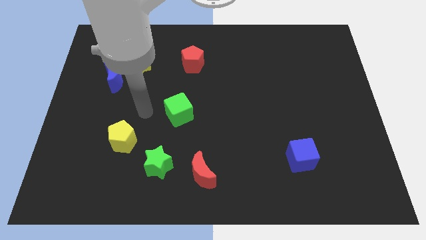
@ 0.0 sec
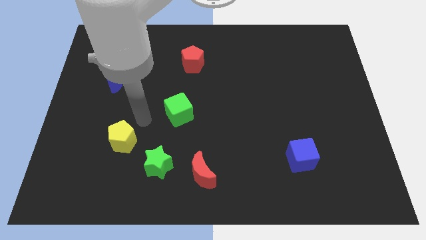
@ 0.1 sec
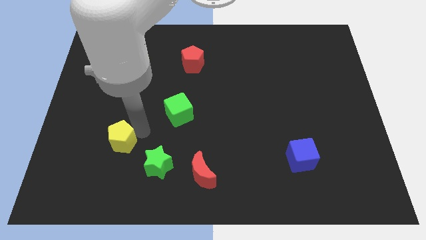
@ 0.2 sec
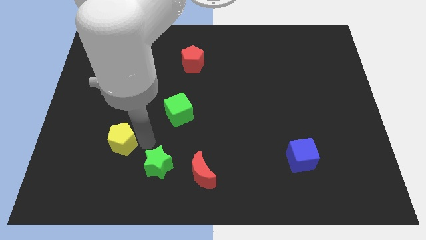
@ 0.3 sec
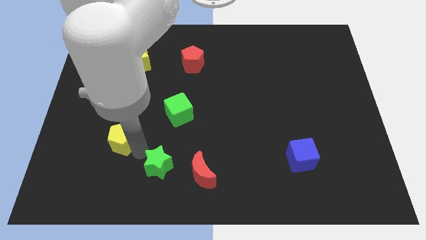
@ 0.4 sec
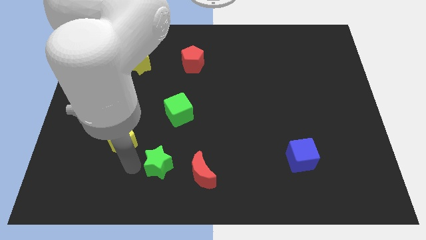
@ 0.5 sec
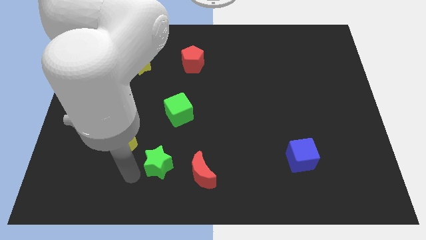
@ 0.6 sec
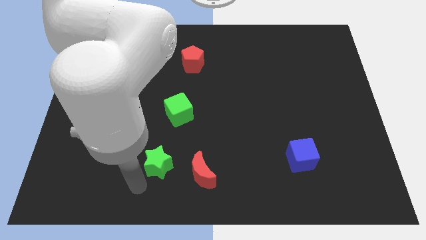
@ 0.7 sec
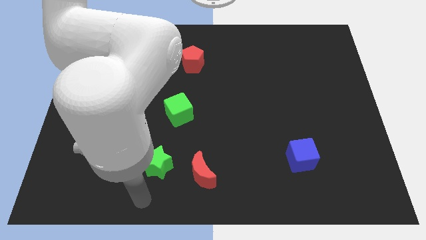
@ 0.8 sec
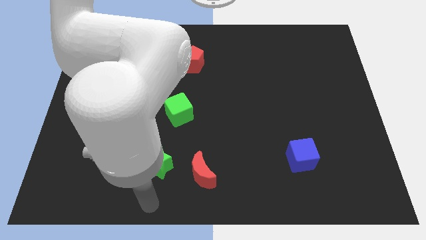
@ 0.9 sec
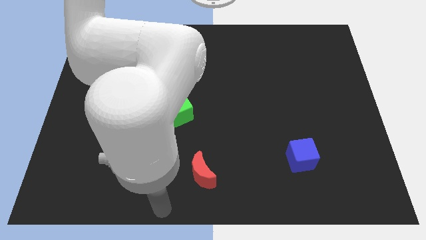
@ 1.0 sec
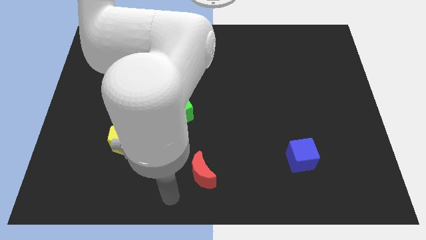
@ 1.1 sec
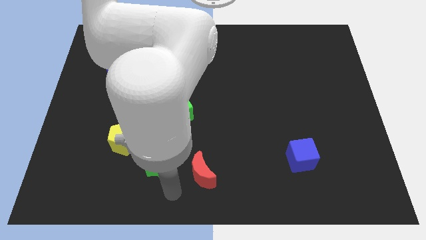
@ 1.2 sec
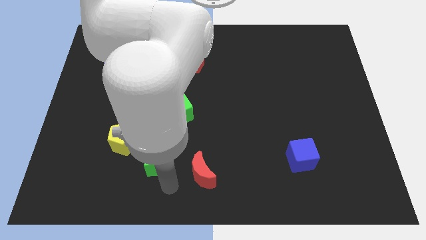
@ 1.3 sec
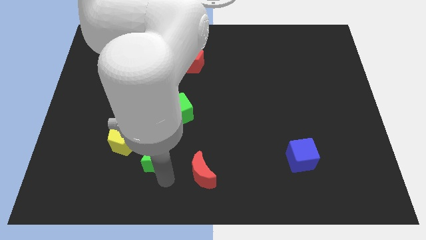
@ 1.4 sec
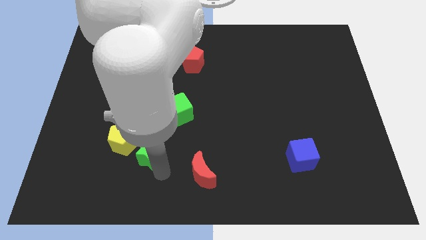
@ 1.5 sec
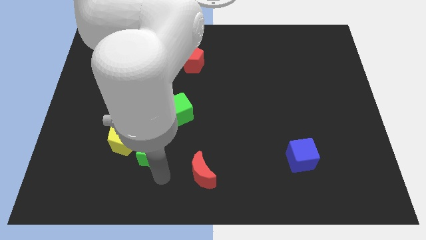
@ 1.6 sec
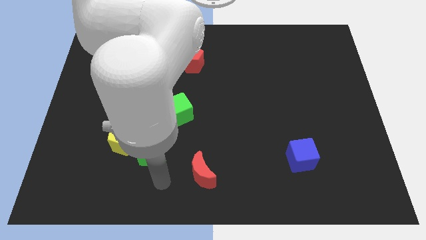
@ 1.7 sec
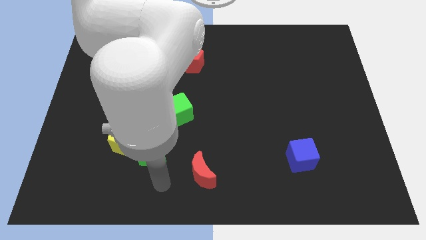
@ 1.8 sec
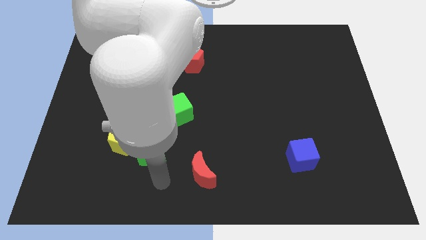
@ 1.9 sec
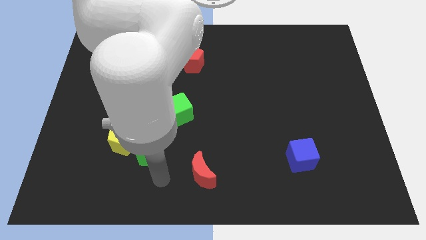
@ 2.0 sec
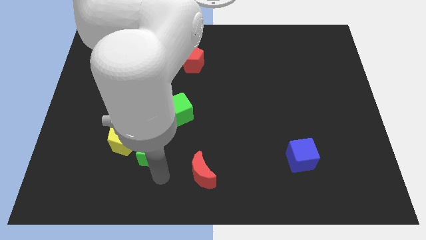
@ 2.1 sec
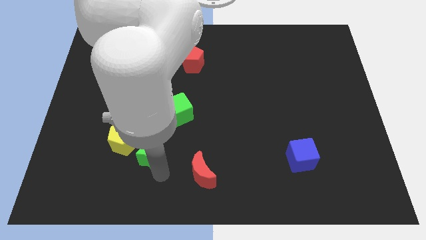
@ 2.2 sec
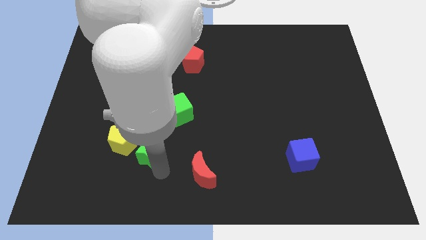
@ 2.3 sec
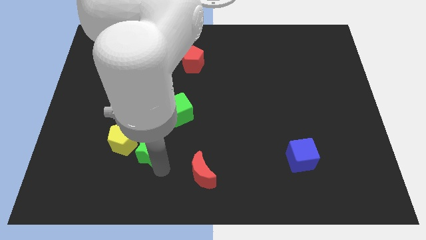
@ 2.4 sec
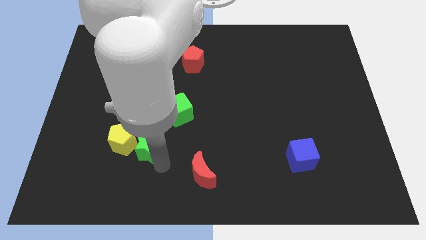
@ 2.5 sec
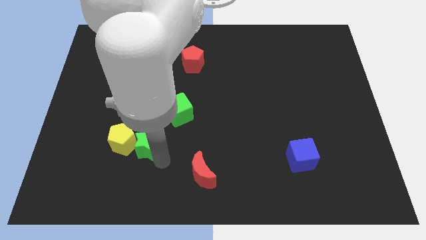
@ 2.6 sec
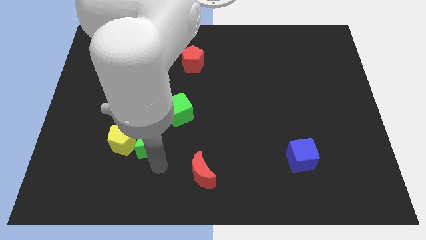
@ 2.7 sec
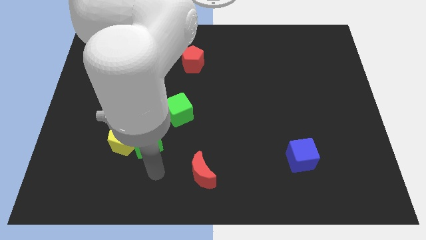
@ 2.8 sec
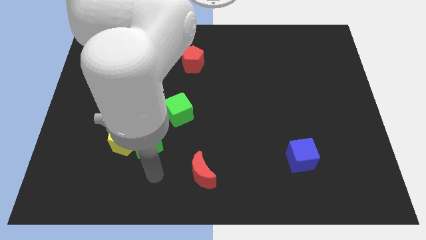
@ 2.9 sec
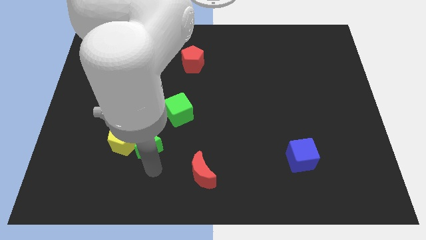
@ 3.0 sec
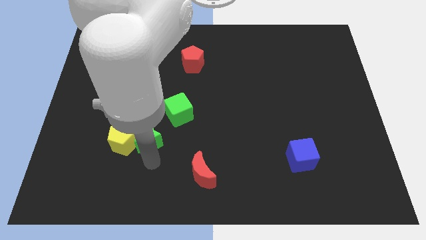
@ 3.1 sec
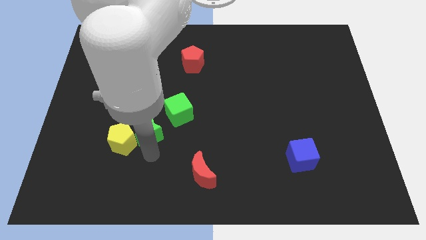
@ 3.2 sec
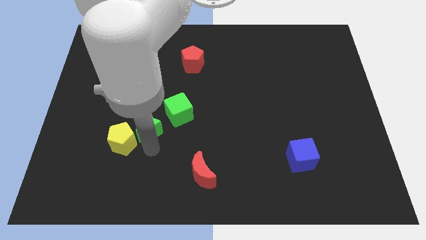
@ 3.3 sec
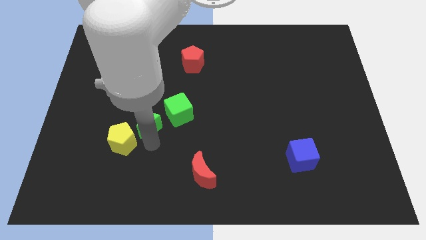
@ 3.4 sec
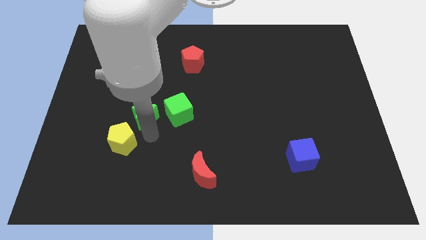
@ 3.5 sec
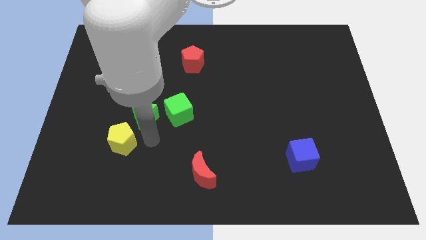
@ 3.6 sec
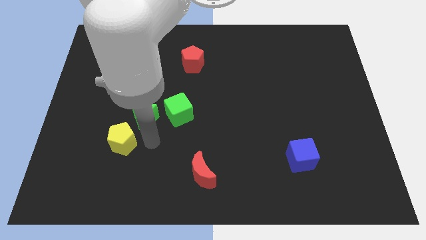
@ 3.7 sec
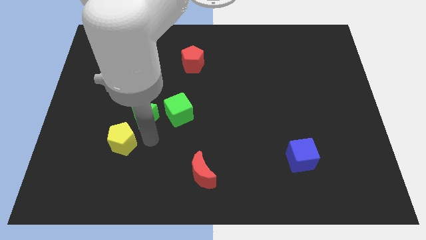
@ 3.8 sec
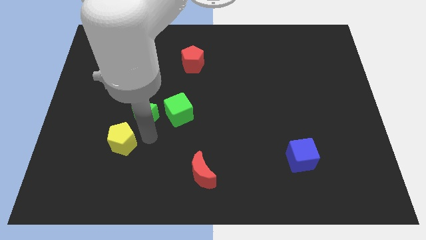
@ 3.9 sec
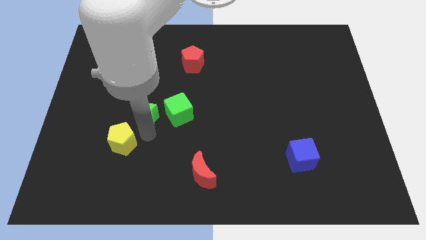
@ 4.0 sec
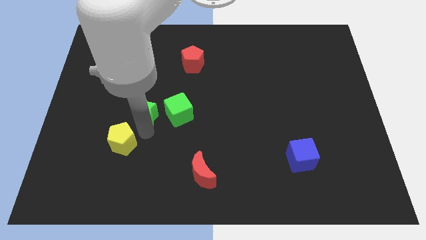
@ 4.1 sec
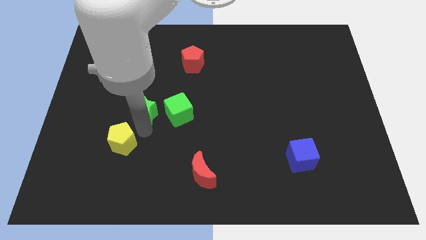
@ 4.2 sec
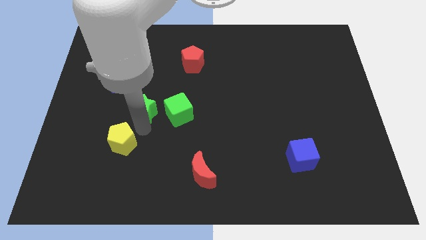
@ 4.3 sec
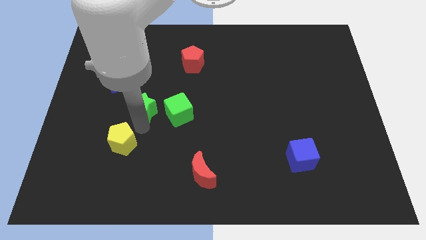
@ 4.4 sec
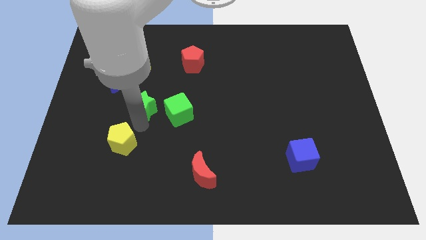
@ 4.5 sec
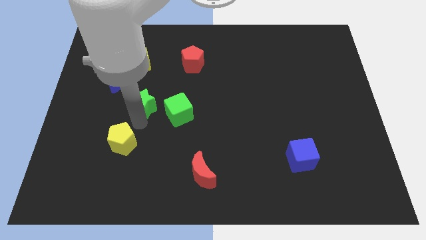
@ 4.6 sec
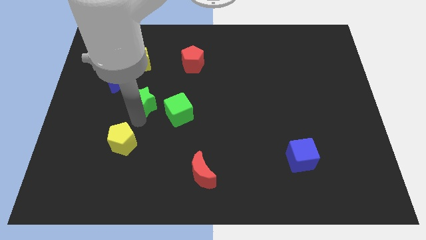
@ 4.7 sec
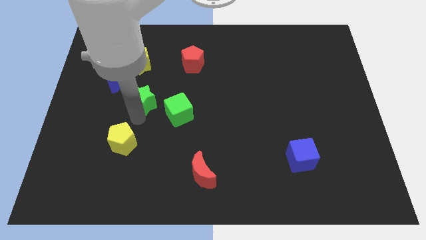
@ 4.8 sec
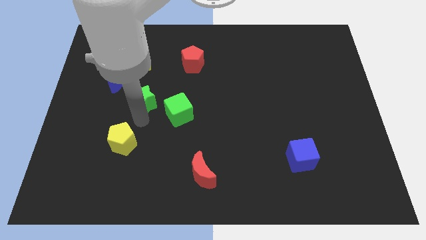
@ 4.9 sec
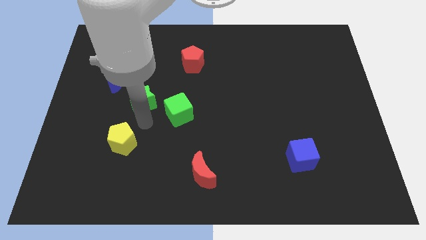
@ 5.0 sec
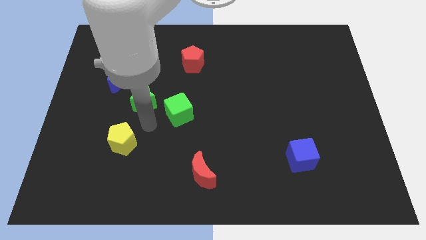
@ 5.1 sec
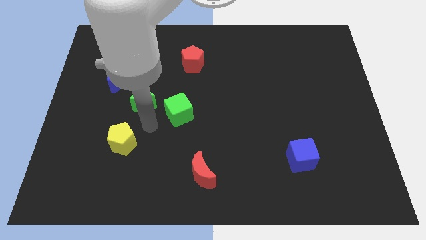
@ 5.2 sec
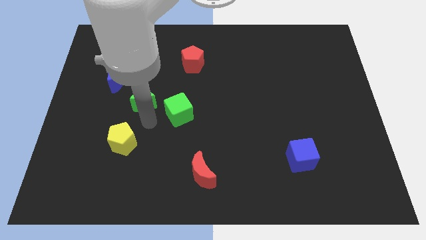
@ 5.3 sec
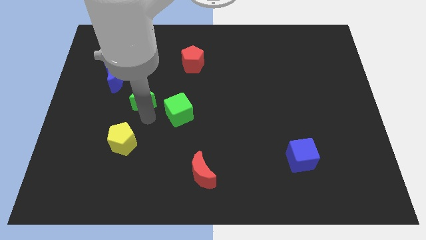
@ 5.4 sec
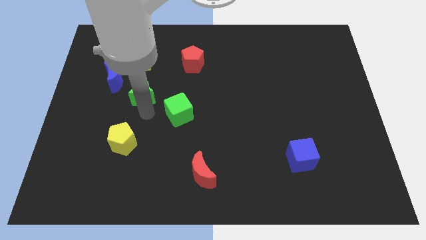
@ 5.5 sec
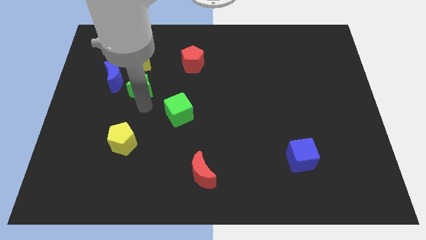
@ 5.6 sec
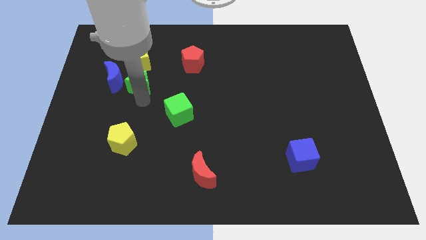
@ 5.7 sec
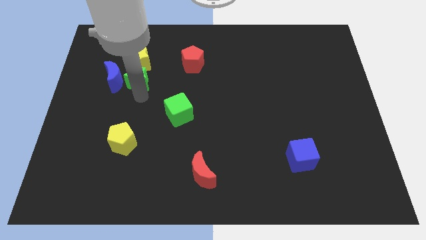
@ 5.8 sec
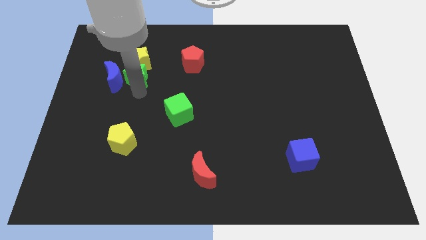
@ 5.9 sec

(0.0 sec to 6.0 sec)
move the green star towards the yellow star

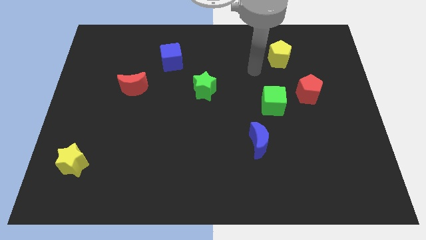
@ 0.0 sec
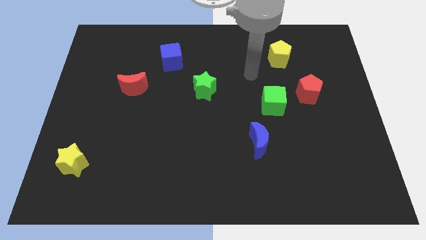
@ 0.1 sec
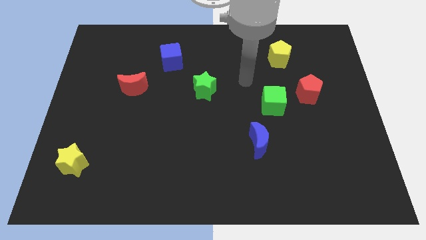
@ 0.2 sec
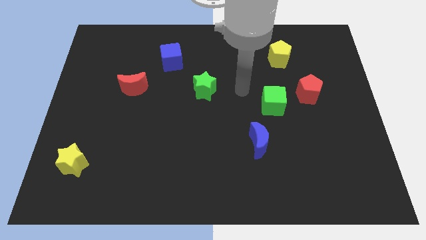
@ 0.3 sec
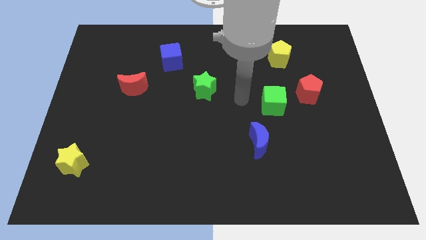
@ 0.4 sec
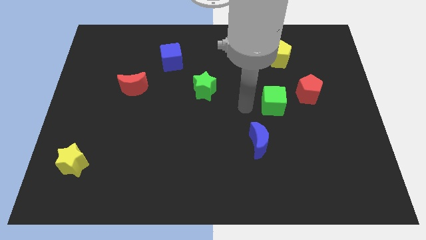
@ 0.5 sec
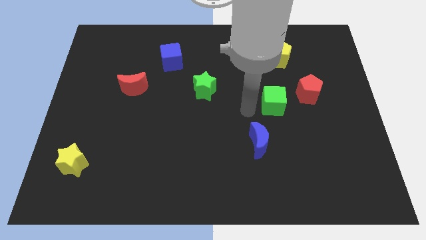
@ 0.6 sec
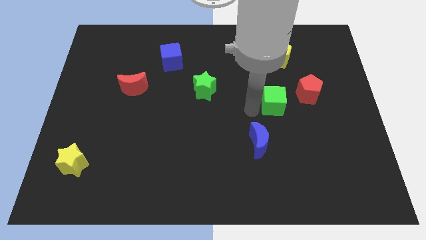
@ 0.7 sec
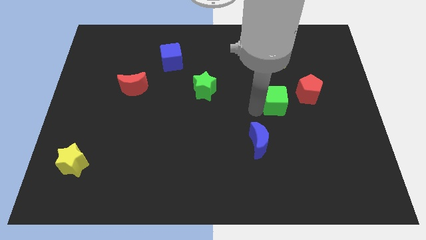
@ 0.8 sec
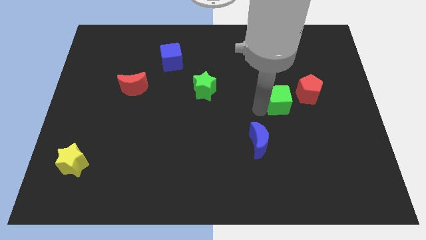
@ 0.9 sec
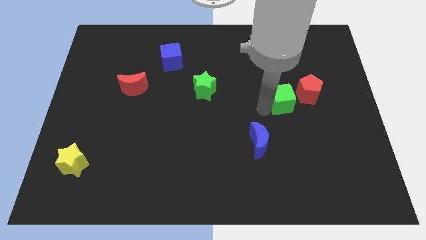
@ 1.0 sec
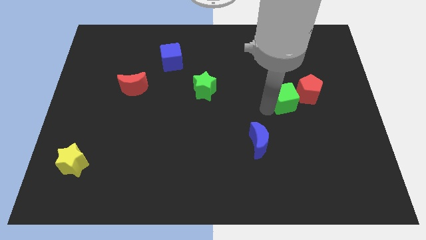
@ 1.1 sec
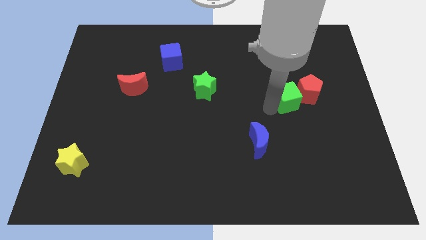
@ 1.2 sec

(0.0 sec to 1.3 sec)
slide the green cube next to the red pentagon
